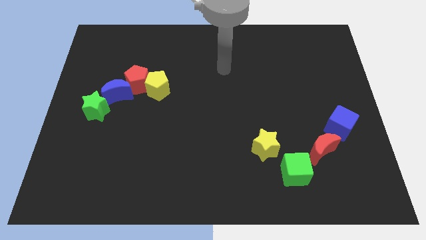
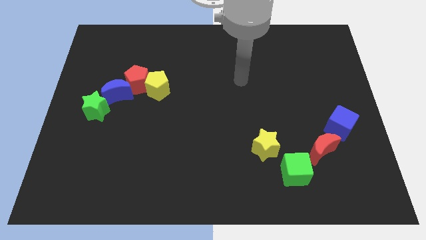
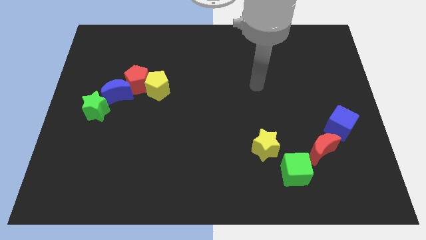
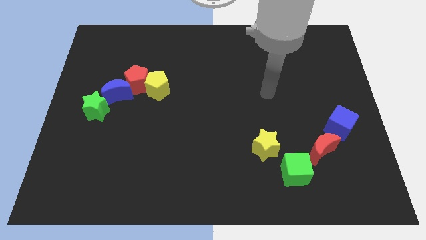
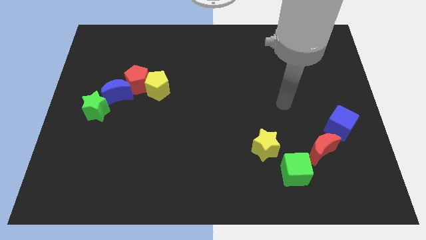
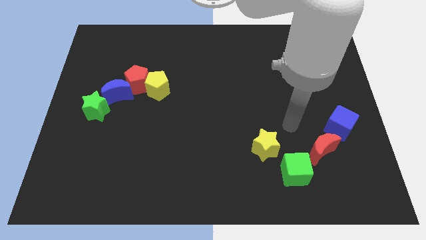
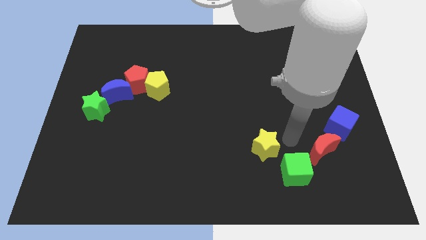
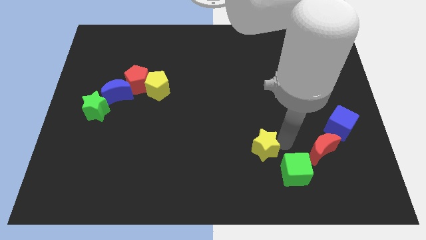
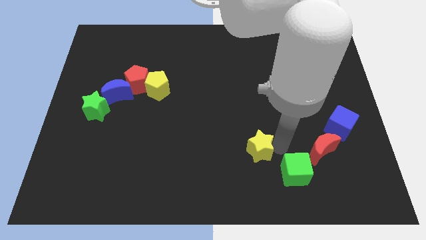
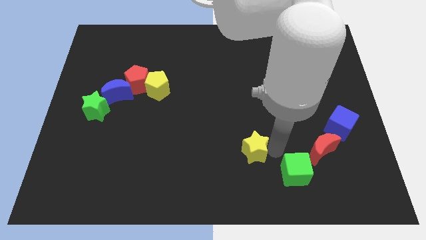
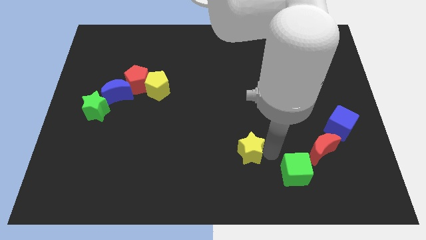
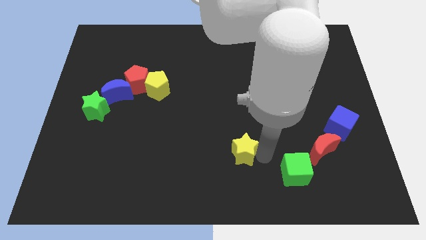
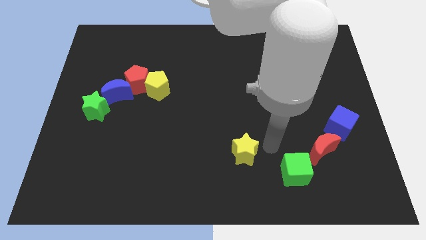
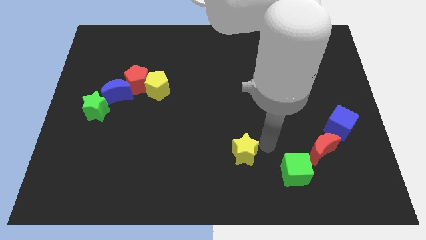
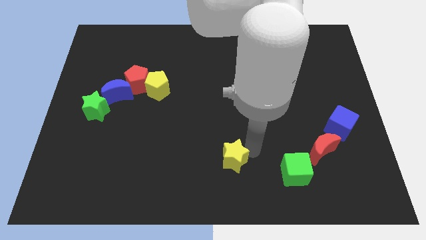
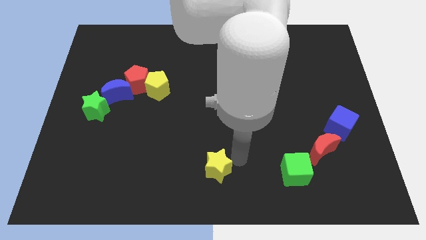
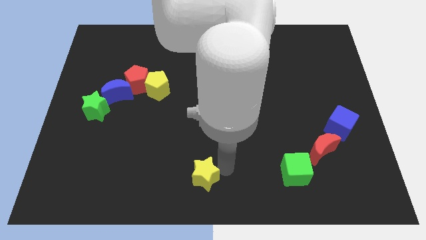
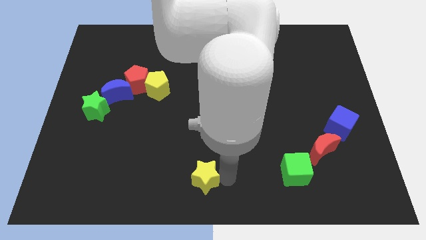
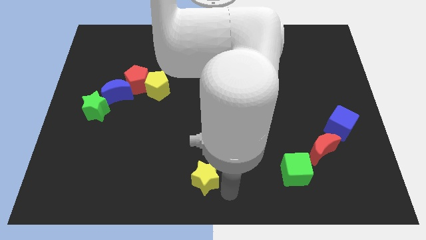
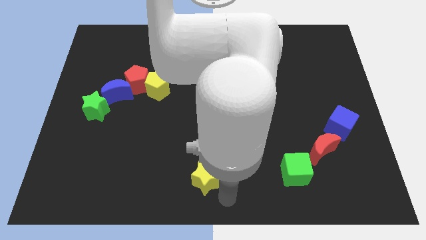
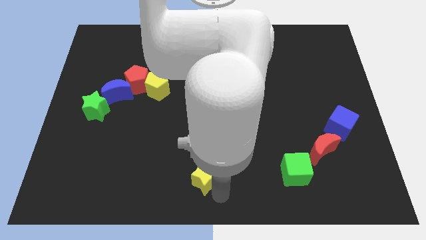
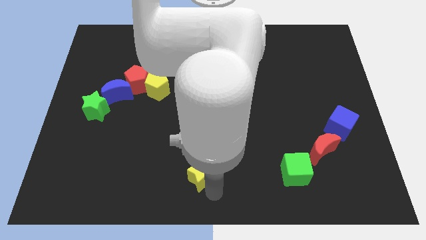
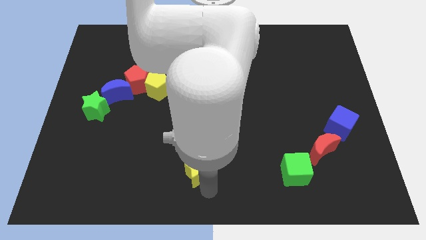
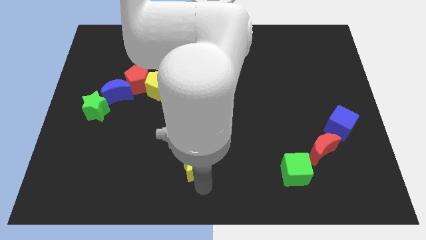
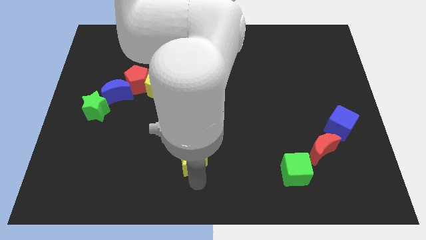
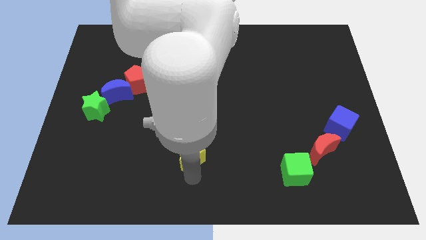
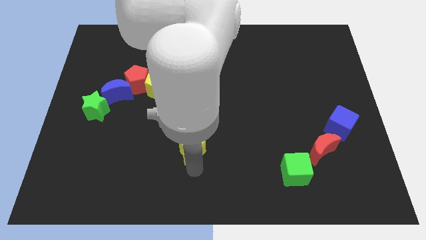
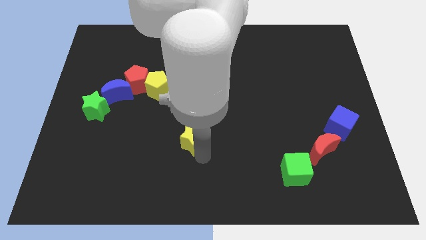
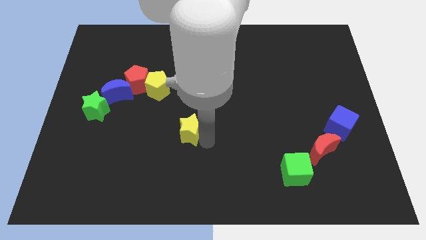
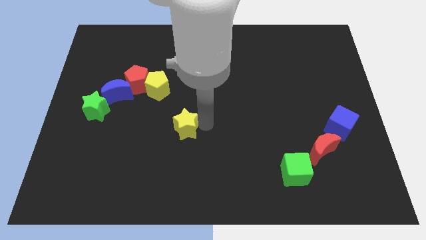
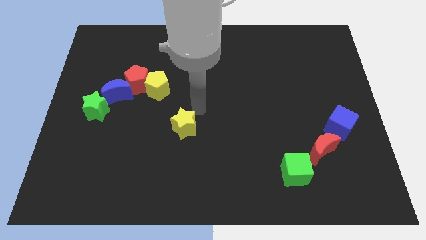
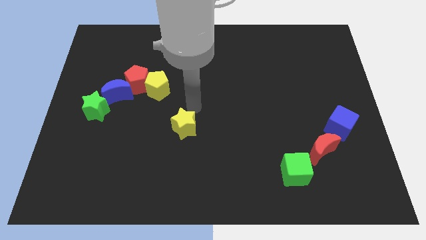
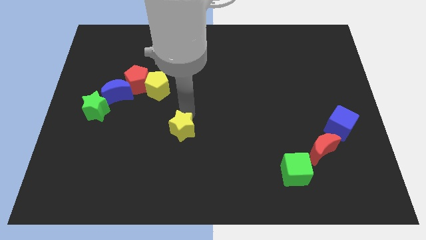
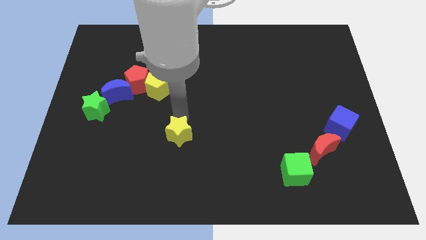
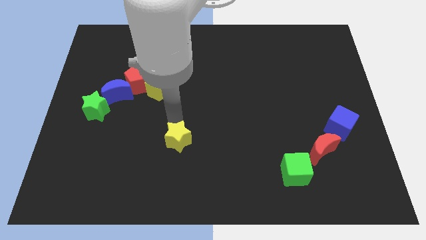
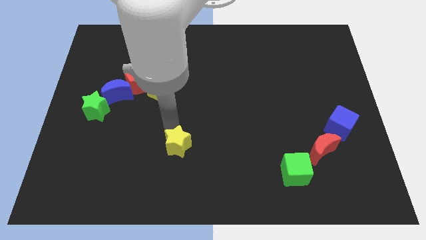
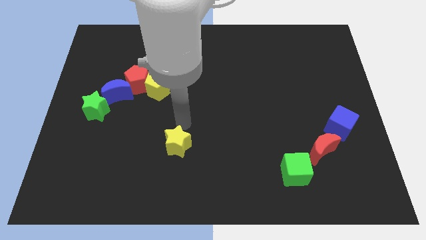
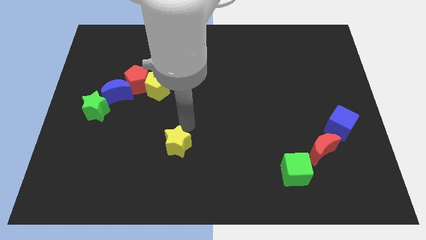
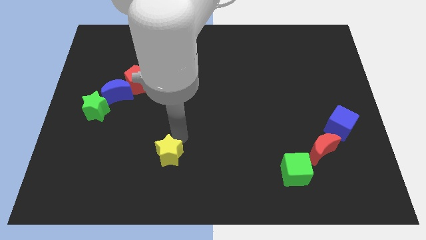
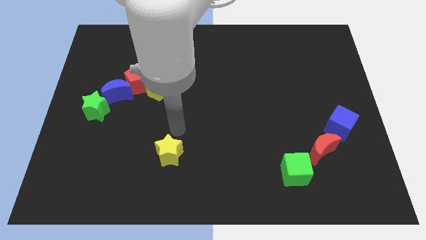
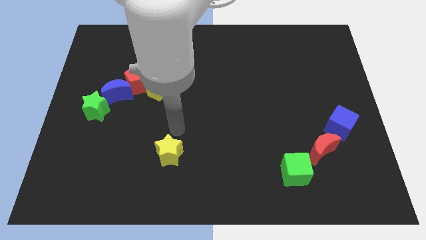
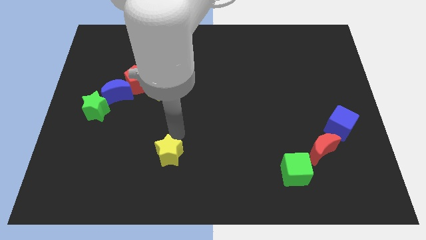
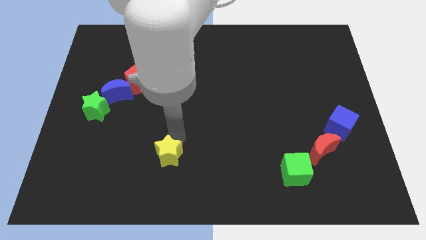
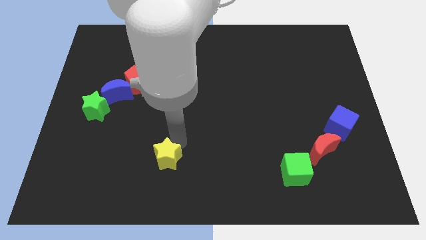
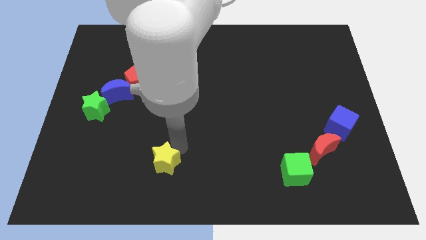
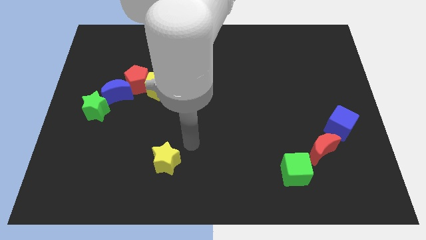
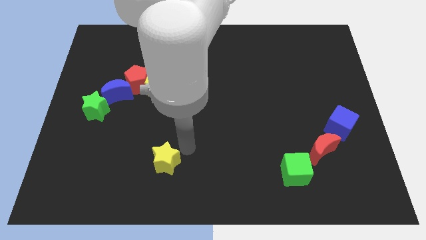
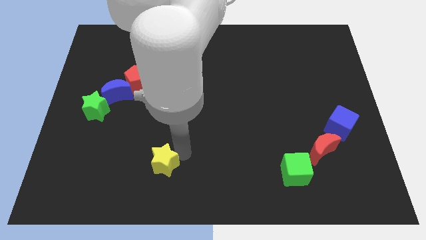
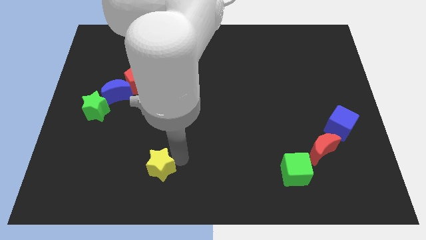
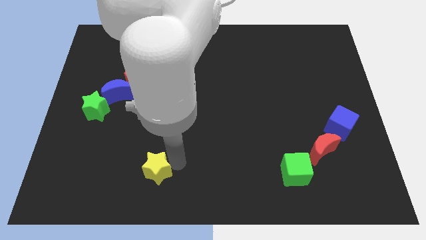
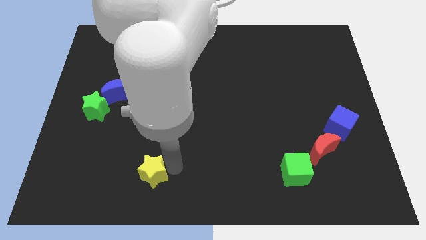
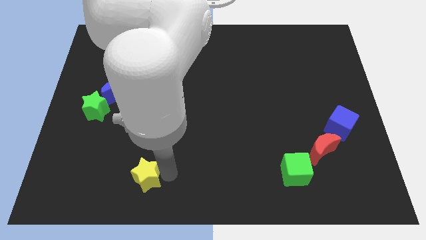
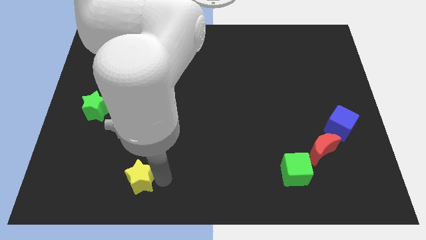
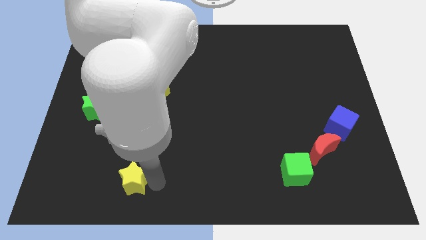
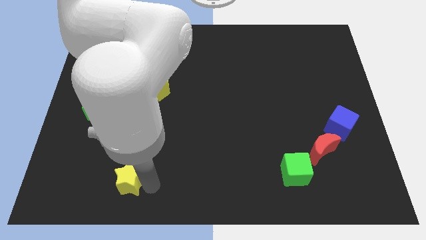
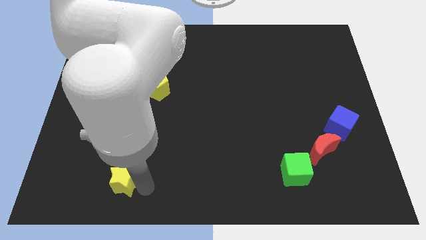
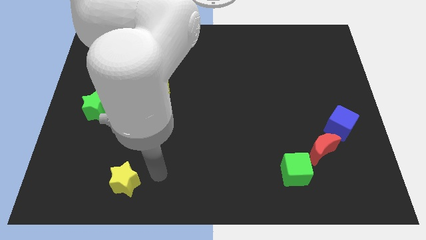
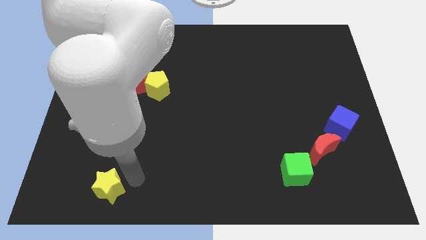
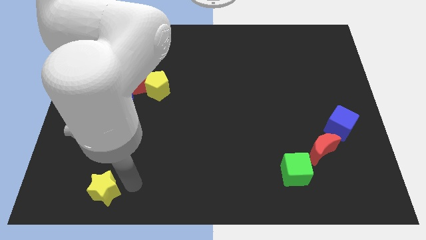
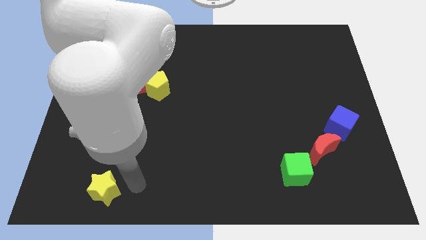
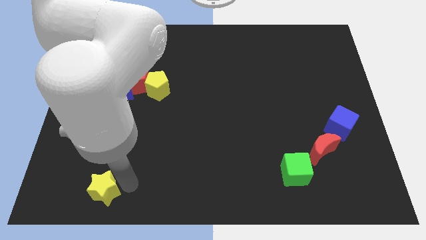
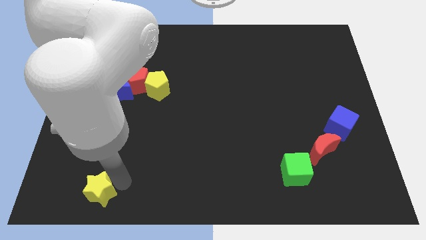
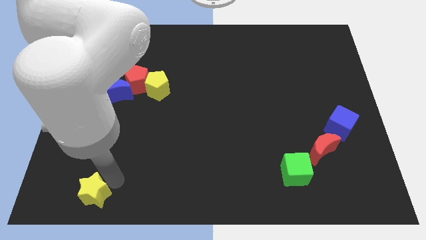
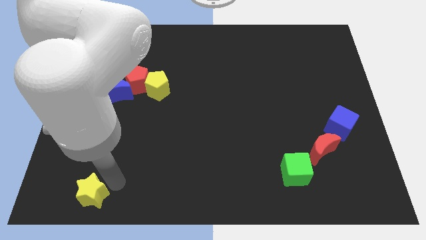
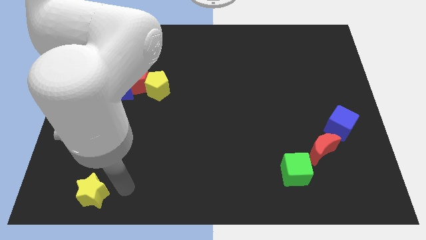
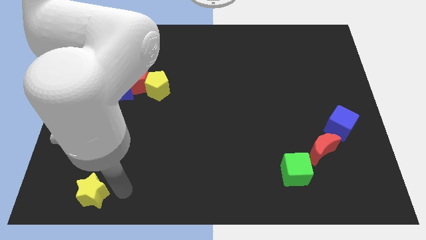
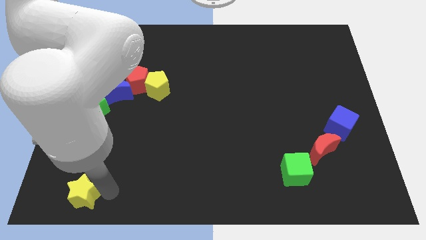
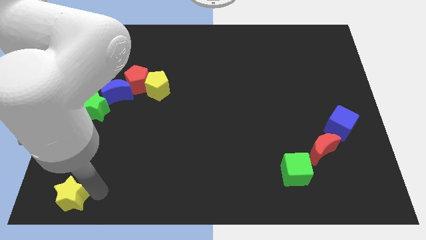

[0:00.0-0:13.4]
put the yellow star to the bottom left of the board
